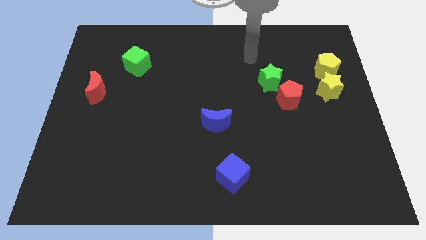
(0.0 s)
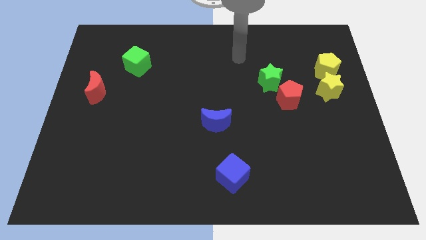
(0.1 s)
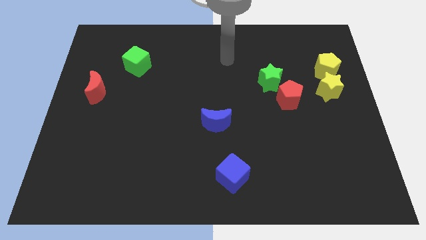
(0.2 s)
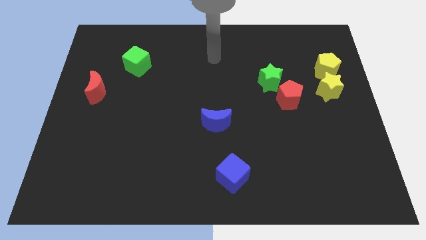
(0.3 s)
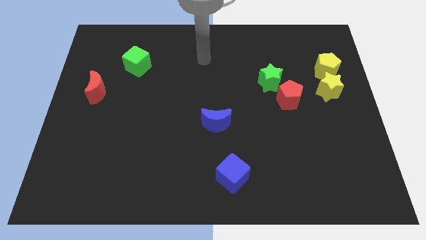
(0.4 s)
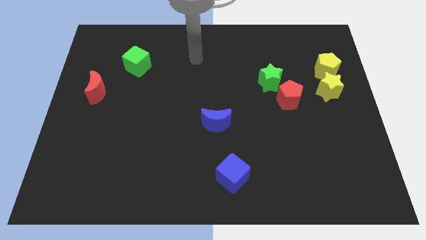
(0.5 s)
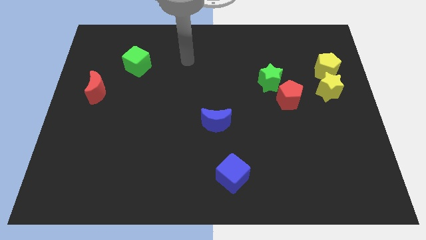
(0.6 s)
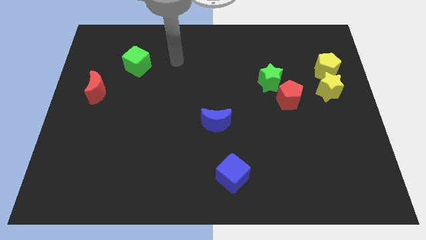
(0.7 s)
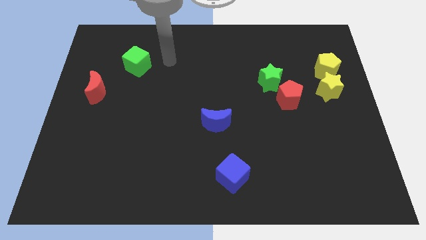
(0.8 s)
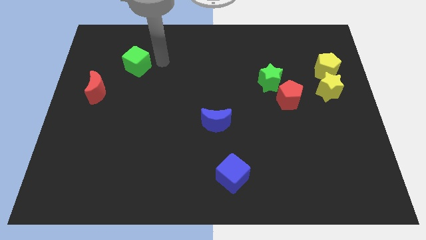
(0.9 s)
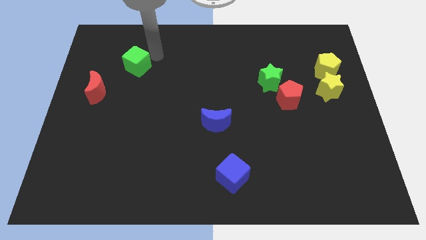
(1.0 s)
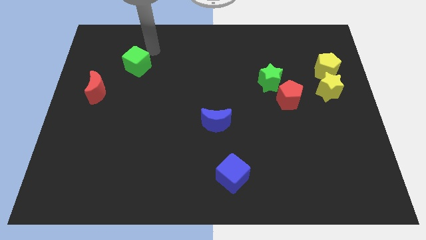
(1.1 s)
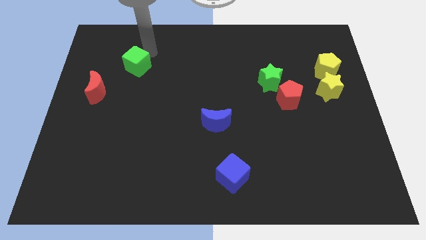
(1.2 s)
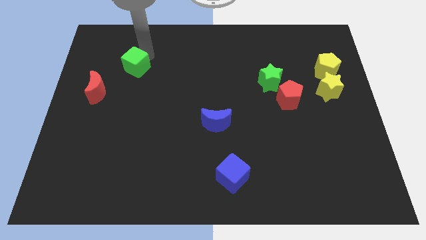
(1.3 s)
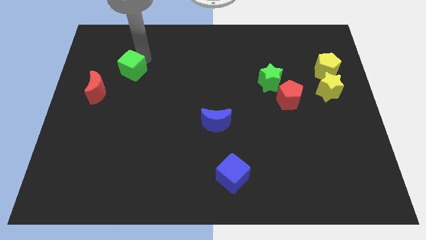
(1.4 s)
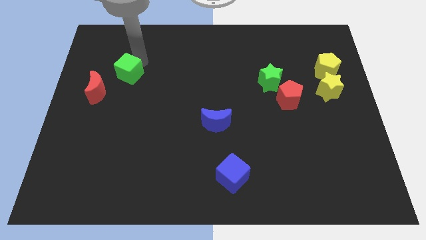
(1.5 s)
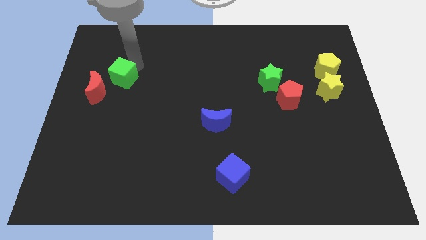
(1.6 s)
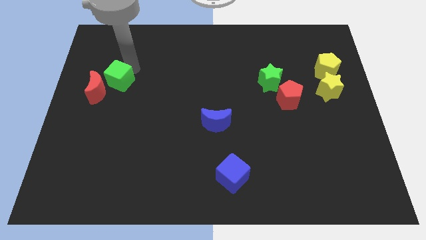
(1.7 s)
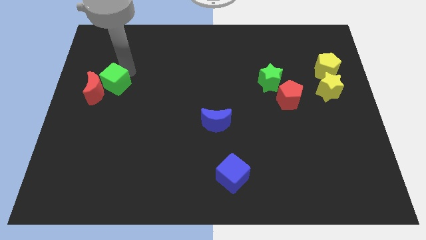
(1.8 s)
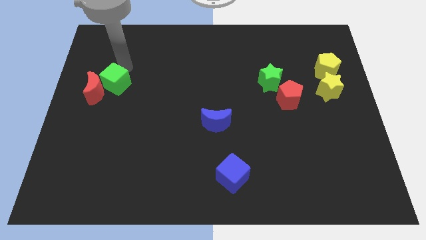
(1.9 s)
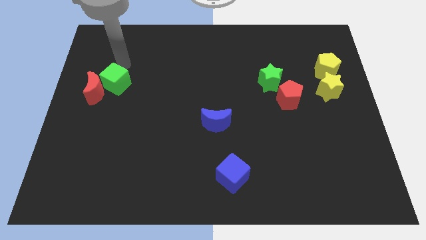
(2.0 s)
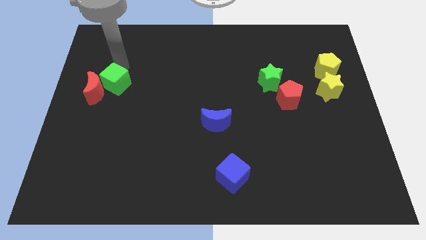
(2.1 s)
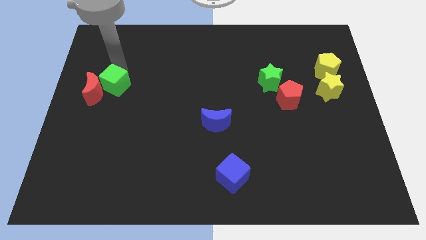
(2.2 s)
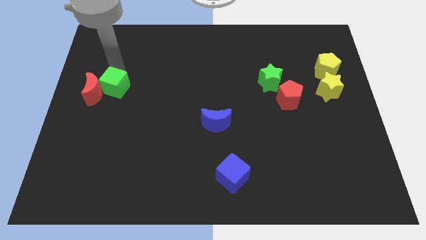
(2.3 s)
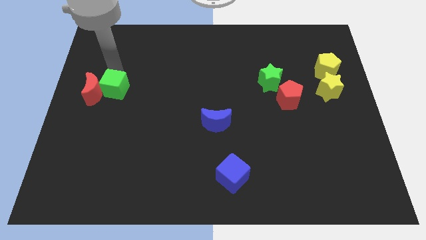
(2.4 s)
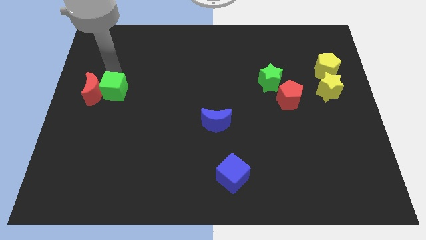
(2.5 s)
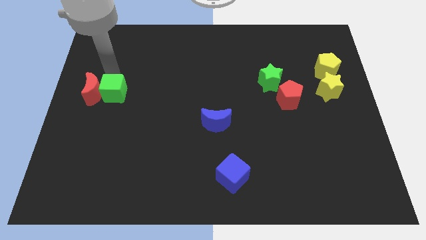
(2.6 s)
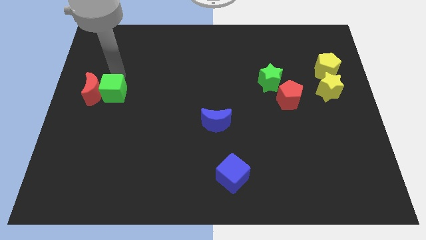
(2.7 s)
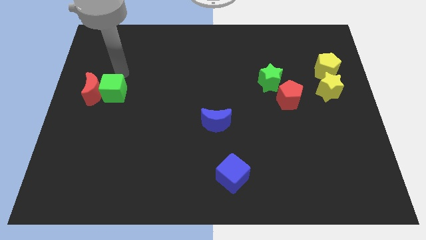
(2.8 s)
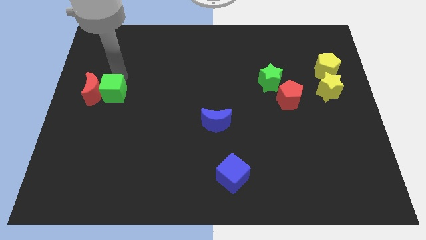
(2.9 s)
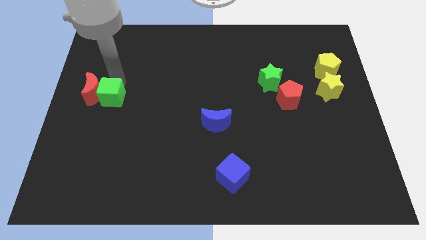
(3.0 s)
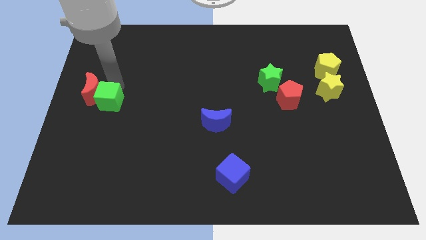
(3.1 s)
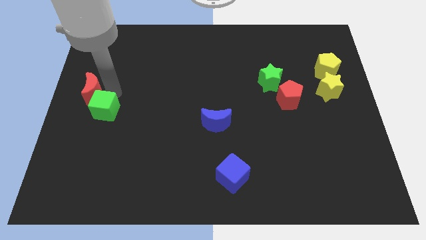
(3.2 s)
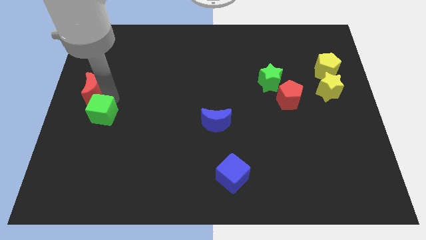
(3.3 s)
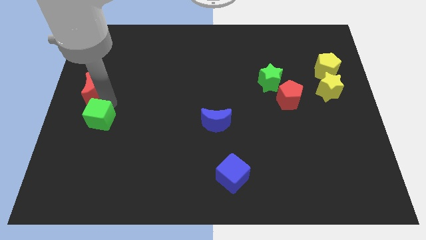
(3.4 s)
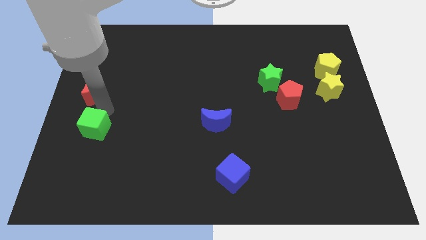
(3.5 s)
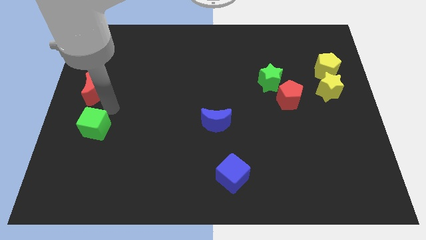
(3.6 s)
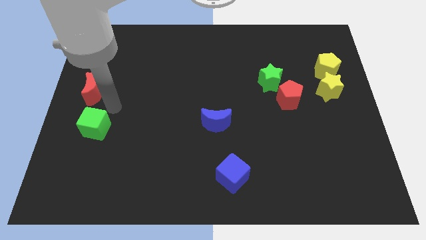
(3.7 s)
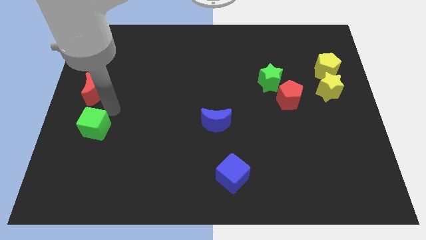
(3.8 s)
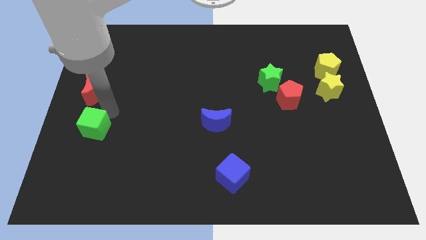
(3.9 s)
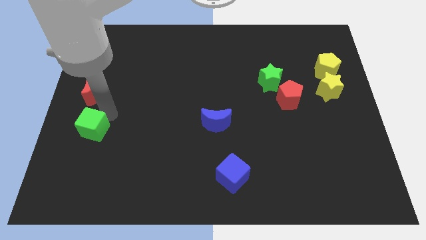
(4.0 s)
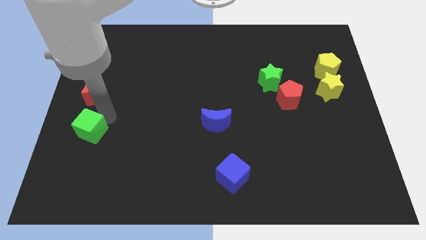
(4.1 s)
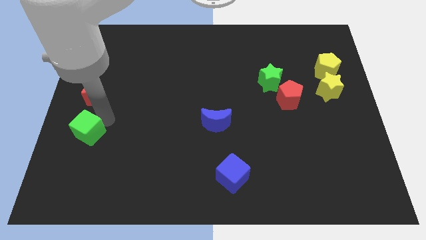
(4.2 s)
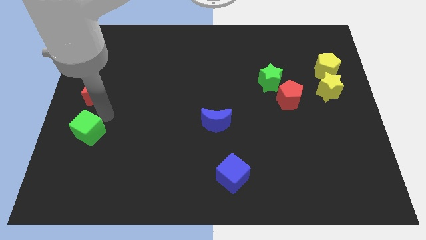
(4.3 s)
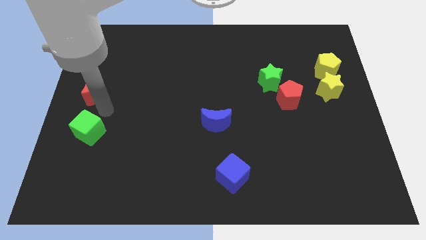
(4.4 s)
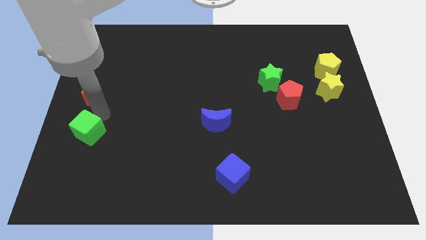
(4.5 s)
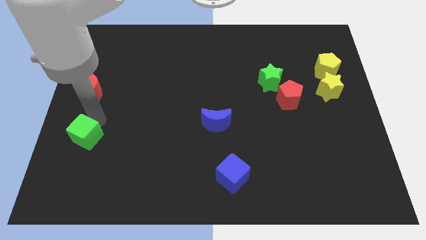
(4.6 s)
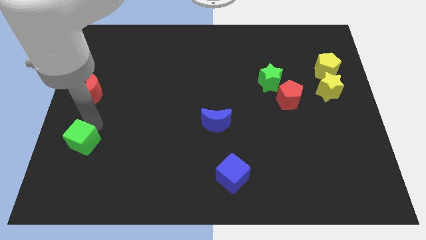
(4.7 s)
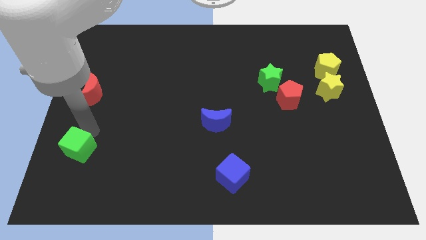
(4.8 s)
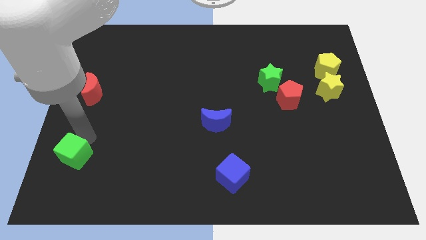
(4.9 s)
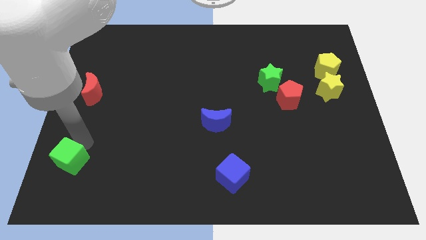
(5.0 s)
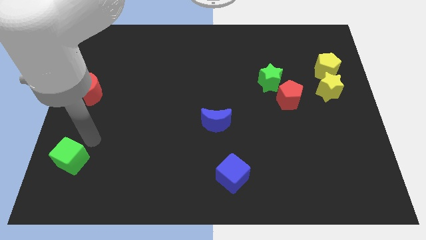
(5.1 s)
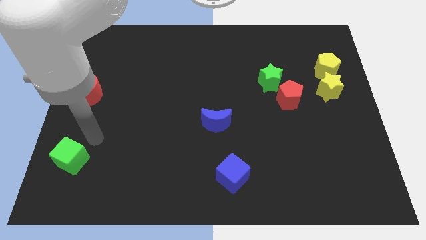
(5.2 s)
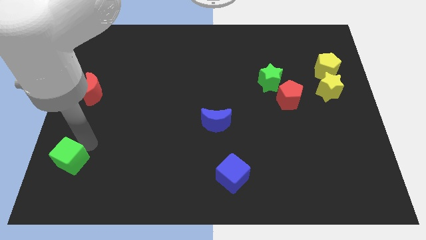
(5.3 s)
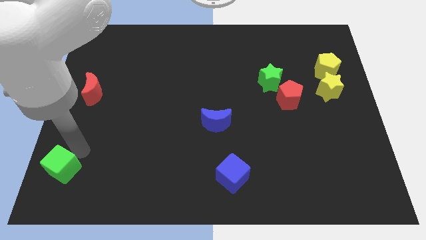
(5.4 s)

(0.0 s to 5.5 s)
put the green cube to the bottom left corner

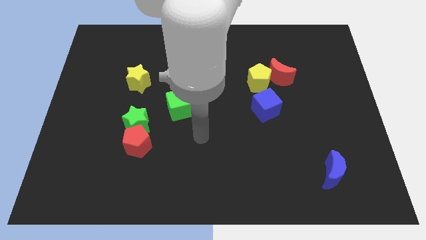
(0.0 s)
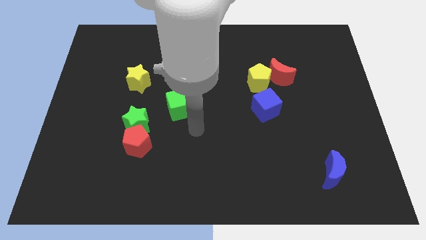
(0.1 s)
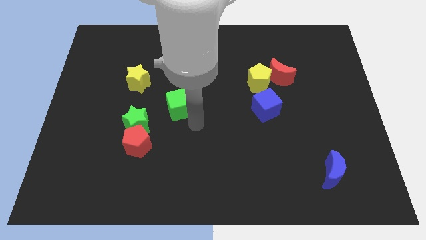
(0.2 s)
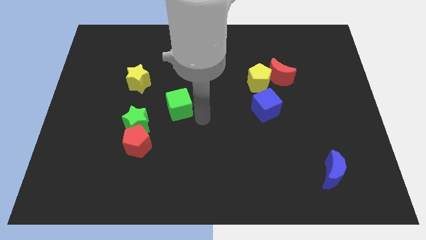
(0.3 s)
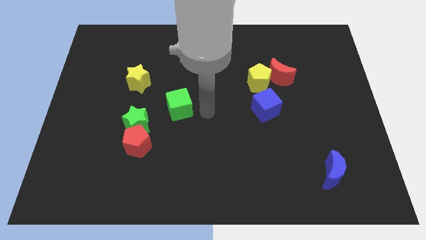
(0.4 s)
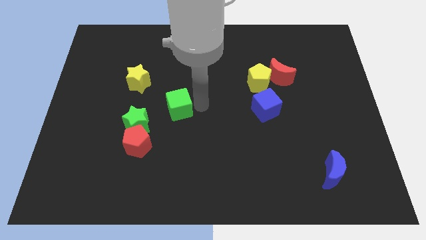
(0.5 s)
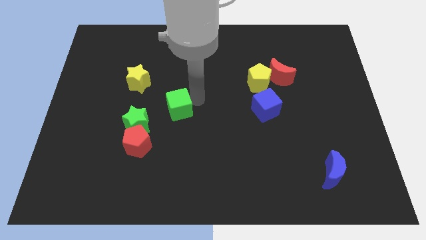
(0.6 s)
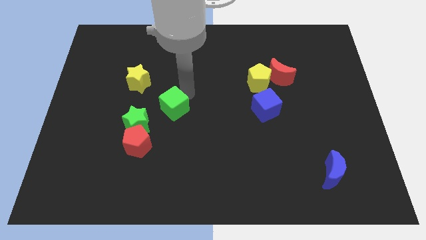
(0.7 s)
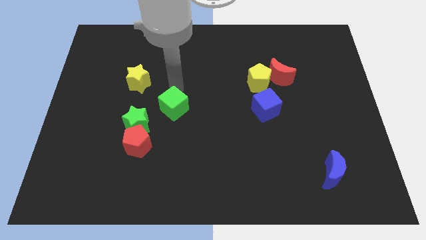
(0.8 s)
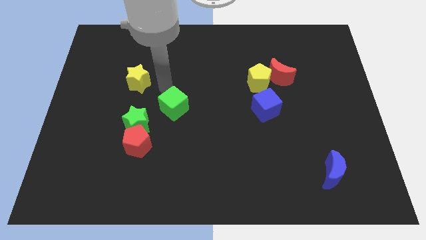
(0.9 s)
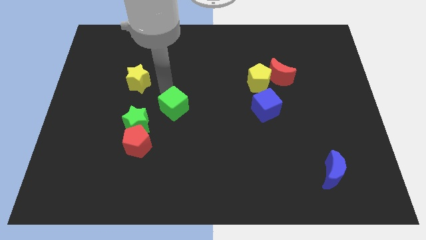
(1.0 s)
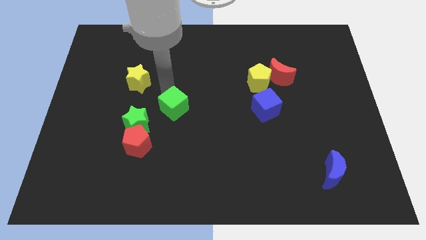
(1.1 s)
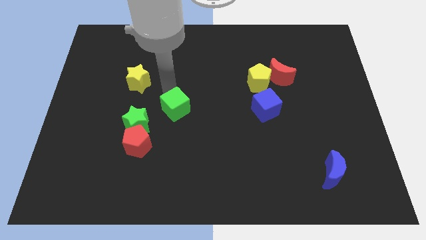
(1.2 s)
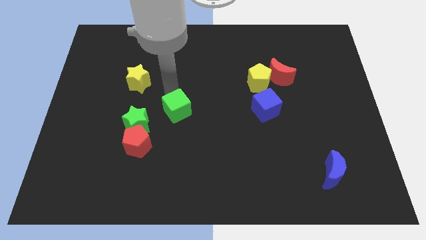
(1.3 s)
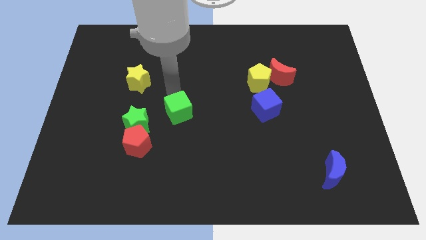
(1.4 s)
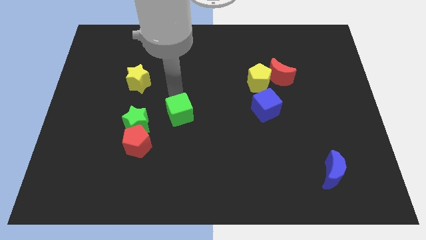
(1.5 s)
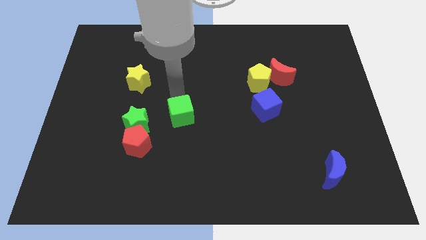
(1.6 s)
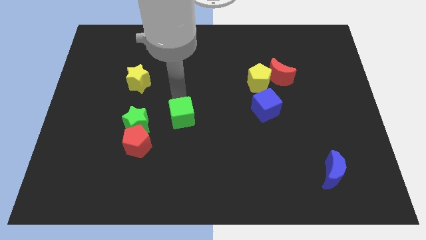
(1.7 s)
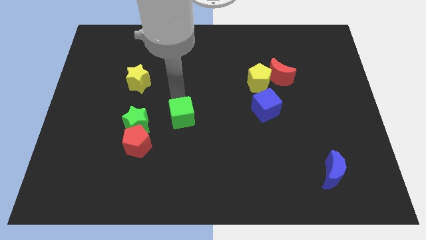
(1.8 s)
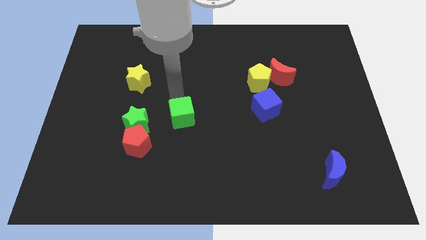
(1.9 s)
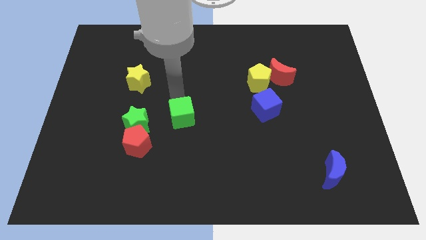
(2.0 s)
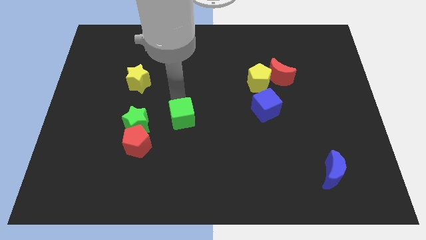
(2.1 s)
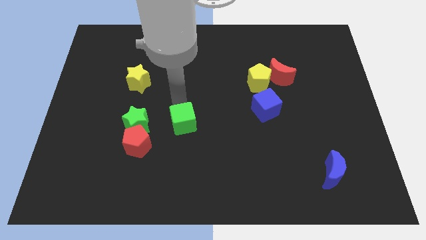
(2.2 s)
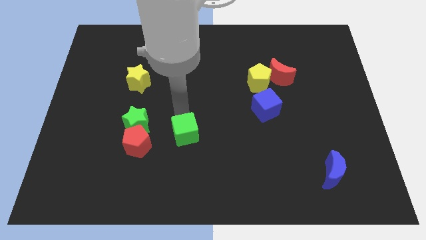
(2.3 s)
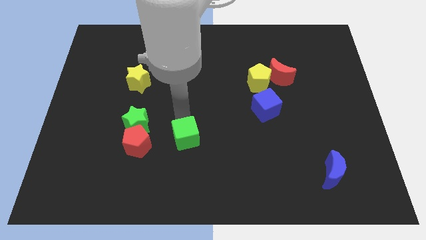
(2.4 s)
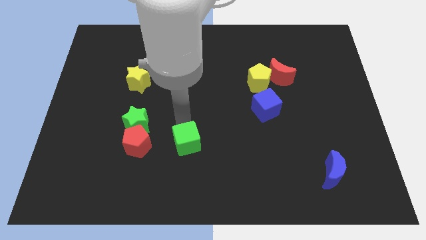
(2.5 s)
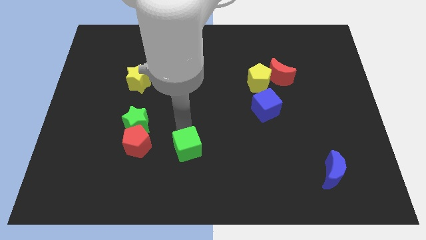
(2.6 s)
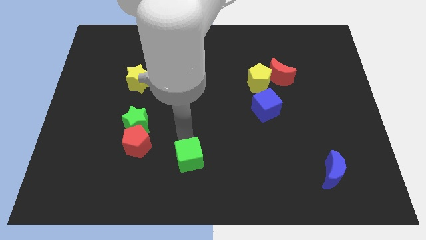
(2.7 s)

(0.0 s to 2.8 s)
push the green cube to the bottom
